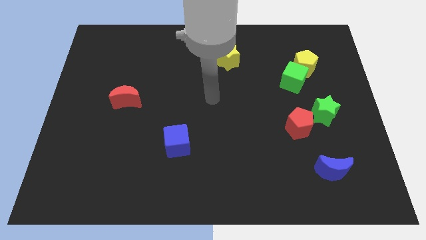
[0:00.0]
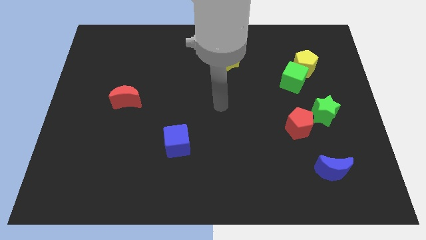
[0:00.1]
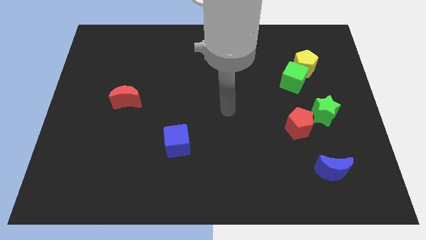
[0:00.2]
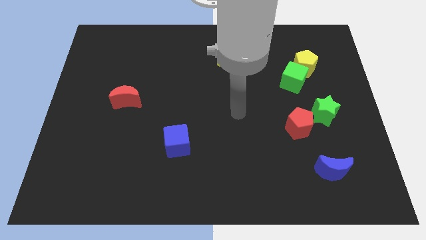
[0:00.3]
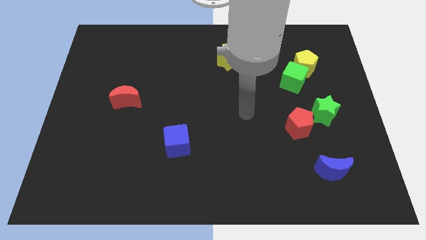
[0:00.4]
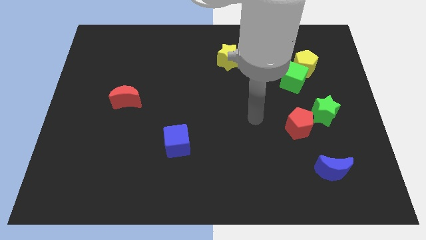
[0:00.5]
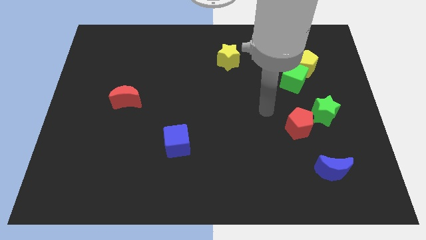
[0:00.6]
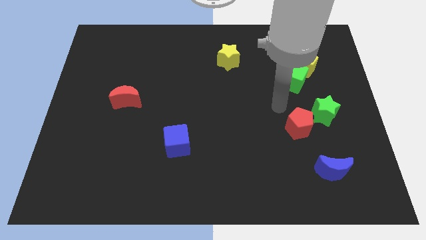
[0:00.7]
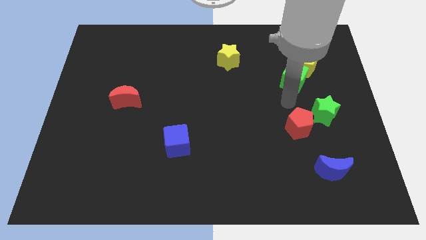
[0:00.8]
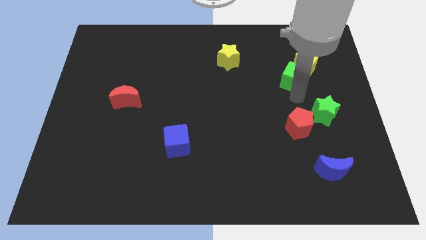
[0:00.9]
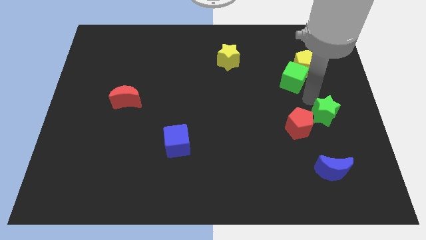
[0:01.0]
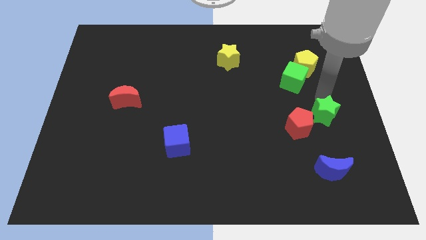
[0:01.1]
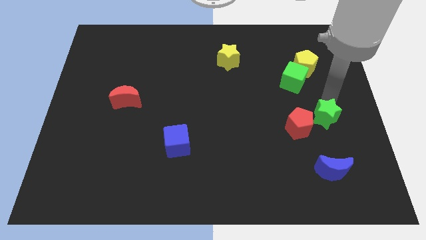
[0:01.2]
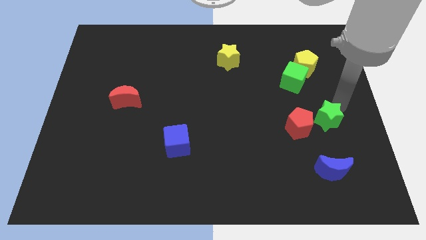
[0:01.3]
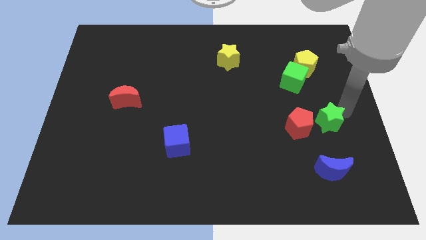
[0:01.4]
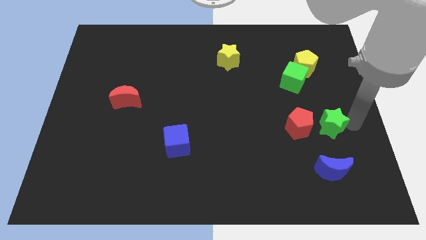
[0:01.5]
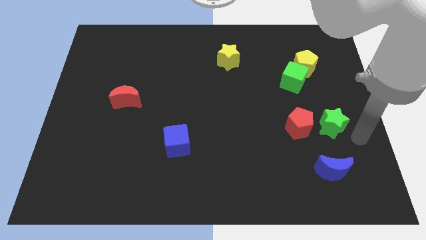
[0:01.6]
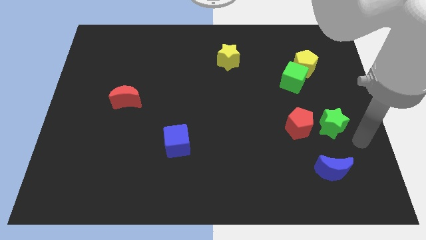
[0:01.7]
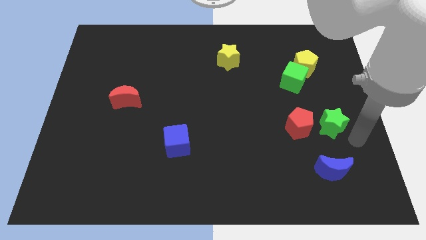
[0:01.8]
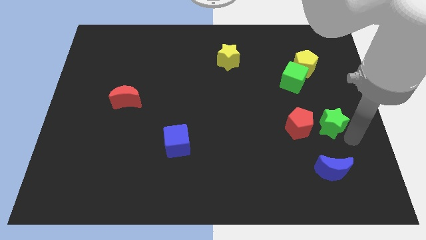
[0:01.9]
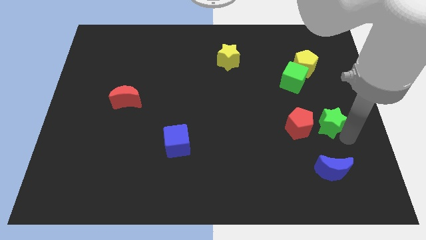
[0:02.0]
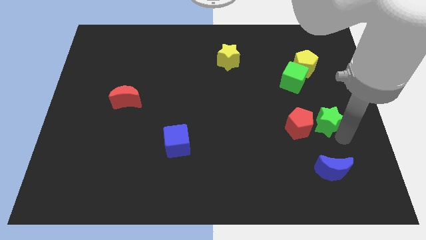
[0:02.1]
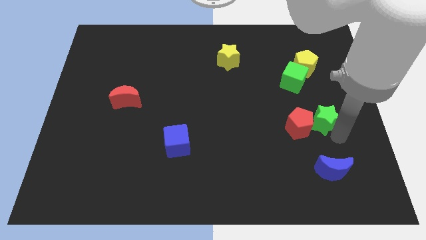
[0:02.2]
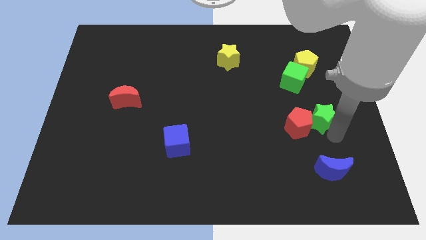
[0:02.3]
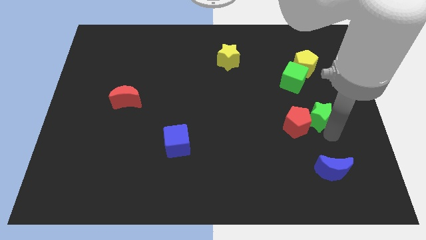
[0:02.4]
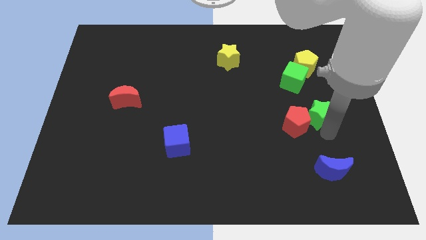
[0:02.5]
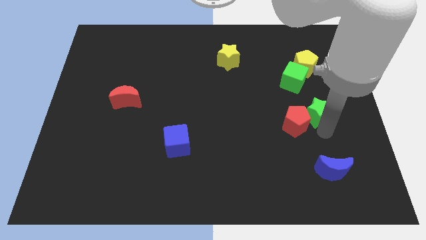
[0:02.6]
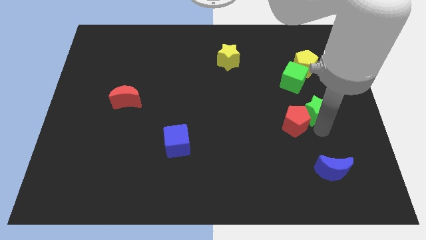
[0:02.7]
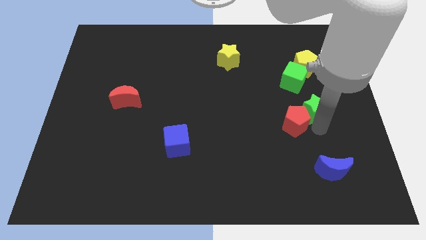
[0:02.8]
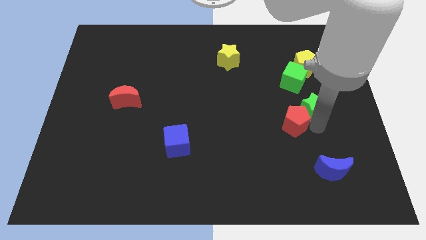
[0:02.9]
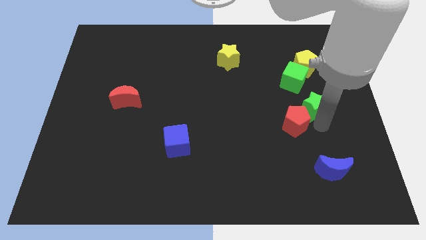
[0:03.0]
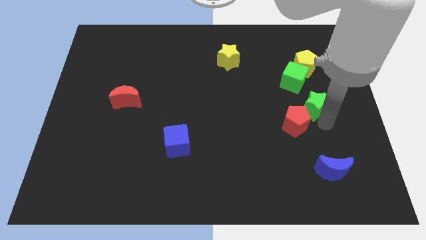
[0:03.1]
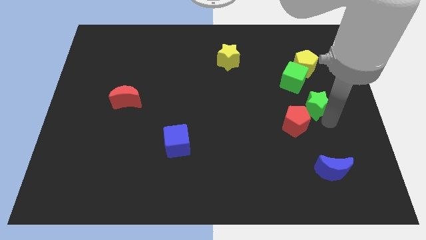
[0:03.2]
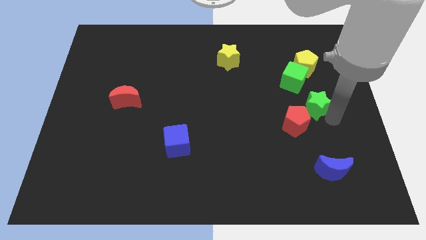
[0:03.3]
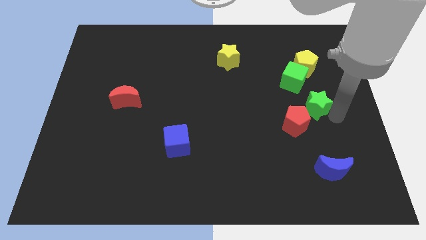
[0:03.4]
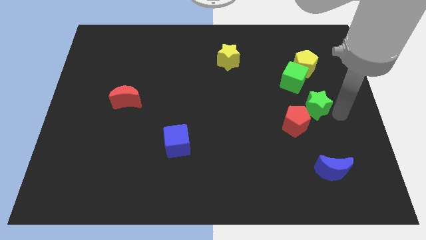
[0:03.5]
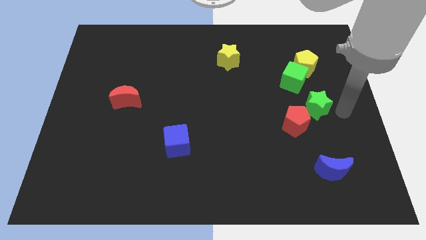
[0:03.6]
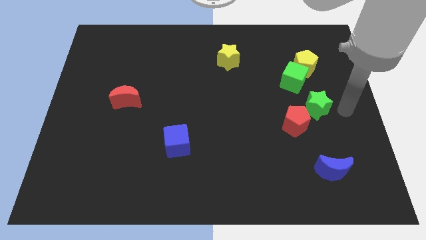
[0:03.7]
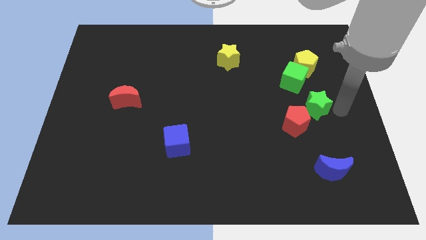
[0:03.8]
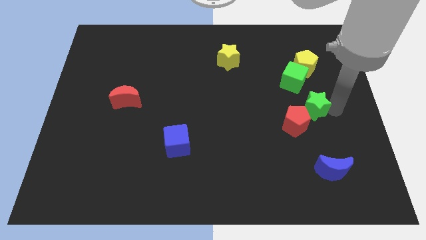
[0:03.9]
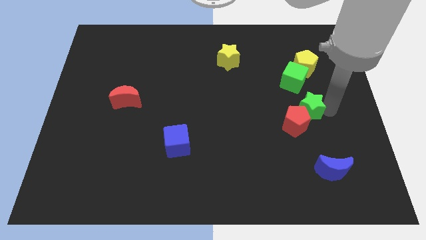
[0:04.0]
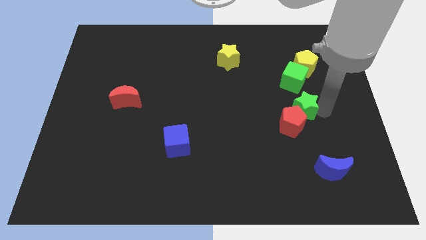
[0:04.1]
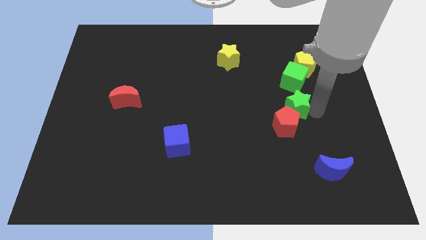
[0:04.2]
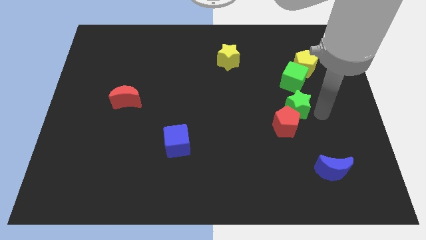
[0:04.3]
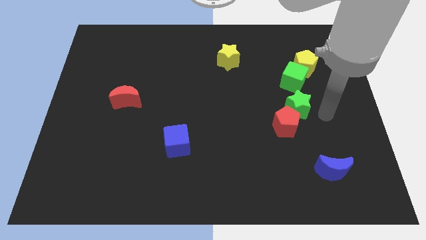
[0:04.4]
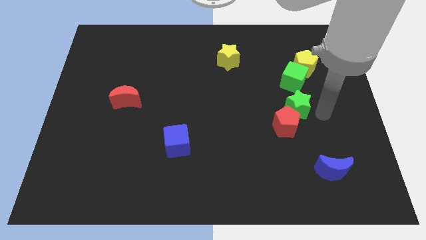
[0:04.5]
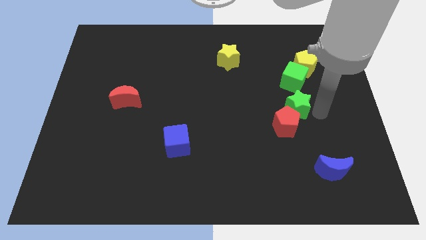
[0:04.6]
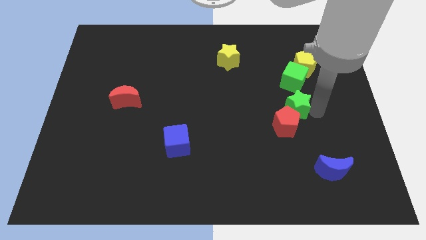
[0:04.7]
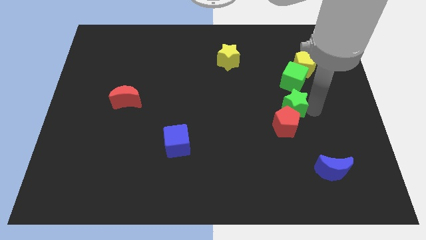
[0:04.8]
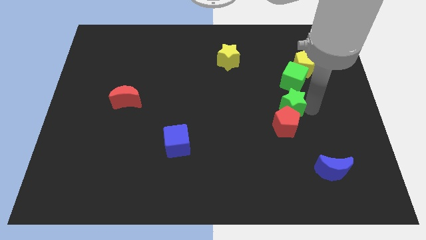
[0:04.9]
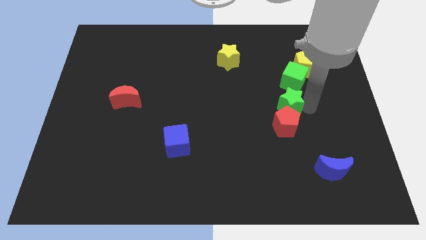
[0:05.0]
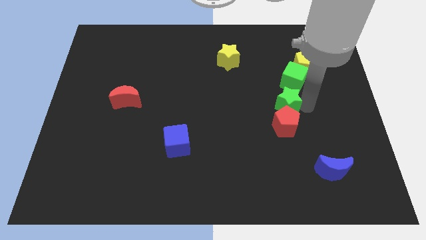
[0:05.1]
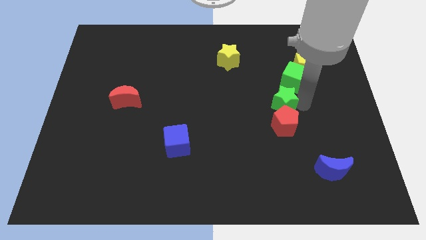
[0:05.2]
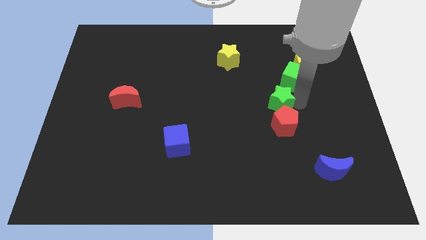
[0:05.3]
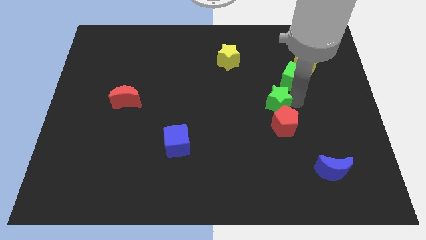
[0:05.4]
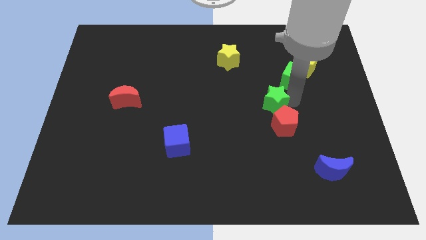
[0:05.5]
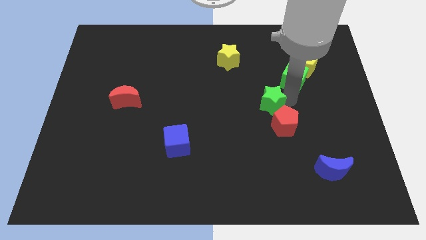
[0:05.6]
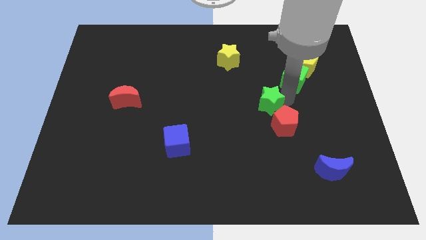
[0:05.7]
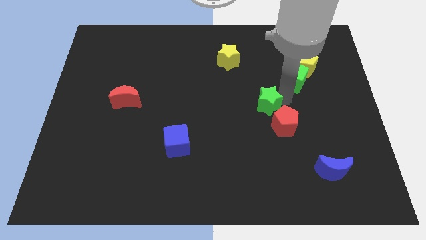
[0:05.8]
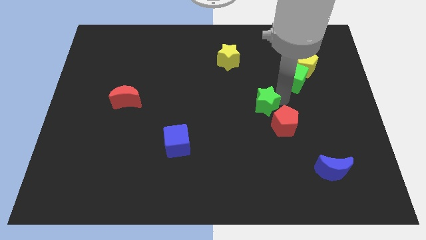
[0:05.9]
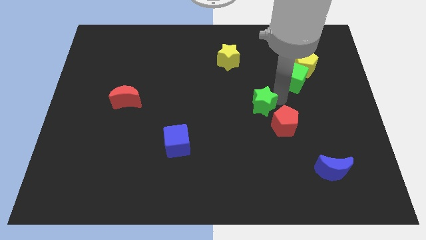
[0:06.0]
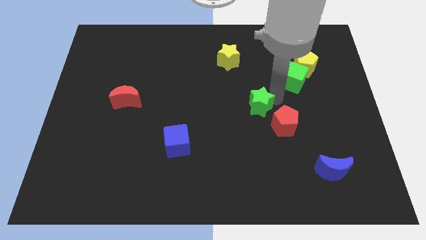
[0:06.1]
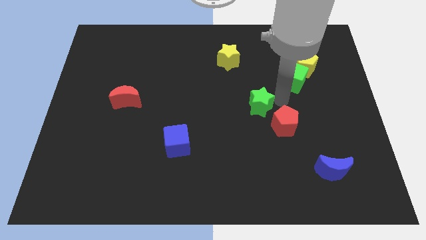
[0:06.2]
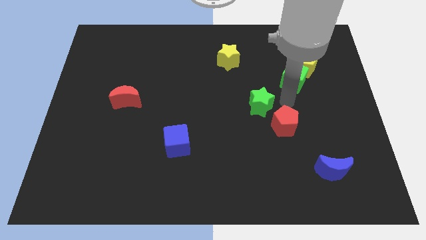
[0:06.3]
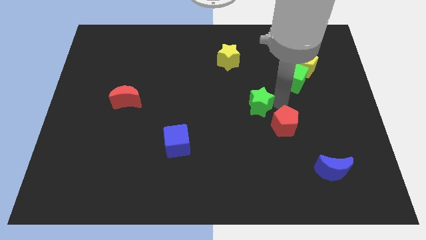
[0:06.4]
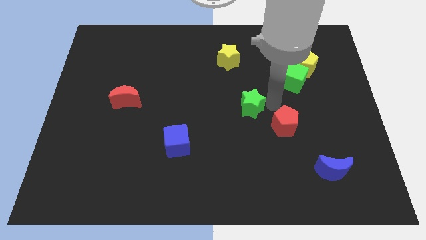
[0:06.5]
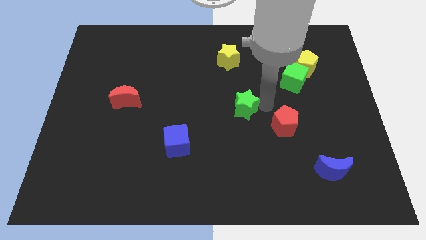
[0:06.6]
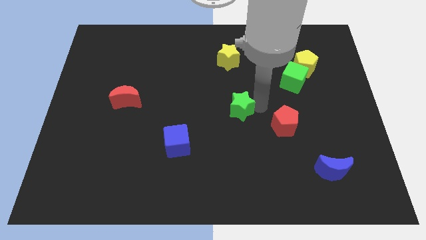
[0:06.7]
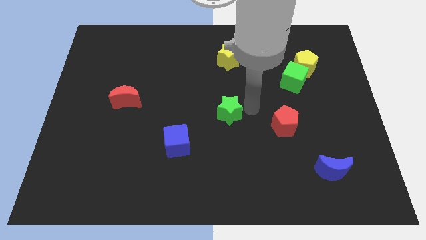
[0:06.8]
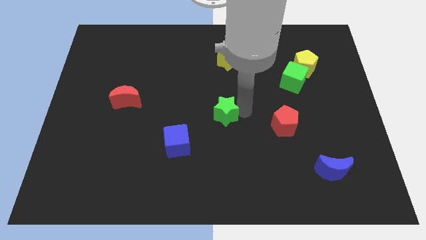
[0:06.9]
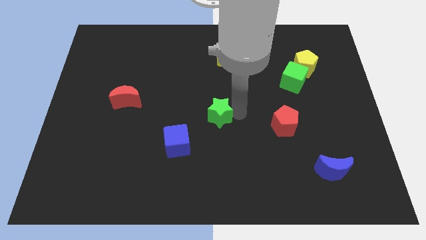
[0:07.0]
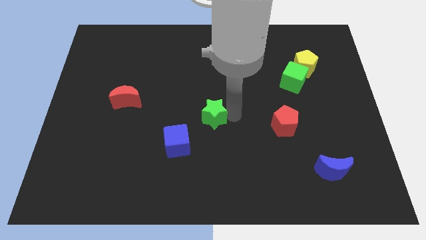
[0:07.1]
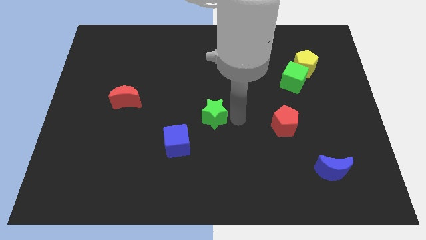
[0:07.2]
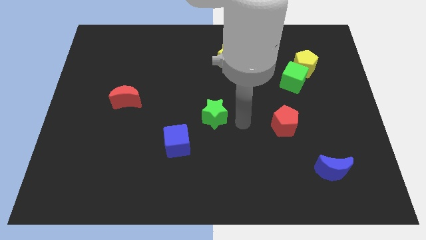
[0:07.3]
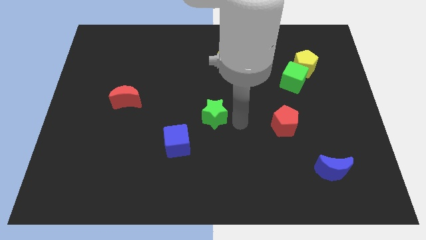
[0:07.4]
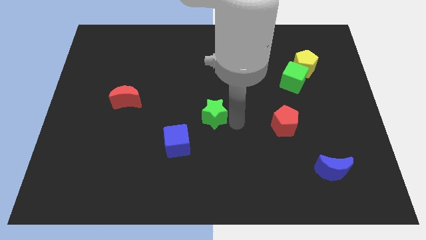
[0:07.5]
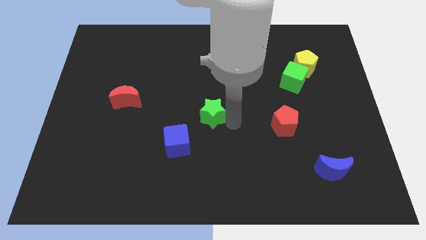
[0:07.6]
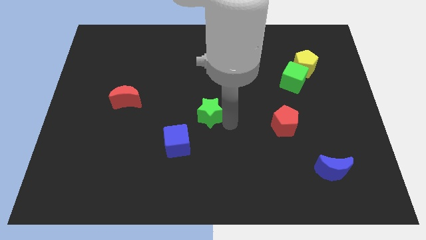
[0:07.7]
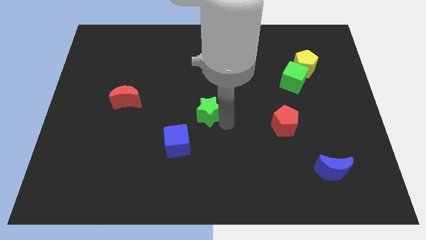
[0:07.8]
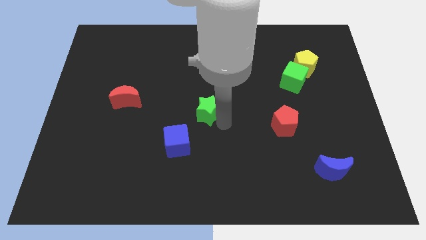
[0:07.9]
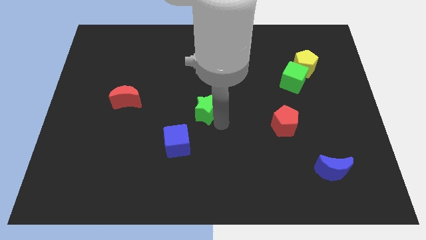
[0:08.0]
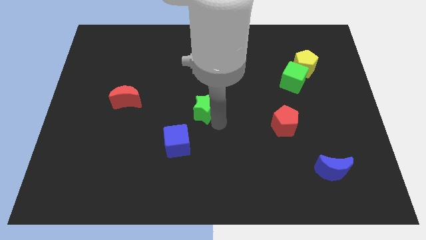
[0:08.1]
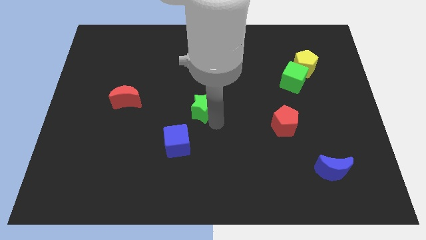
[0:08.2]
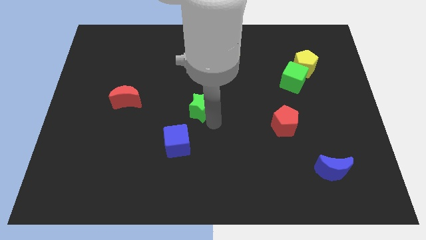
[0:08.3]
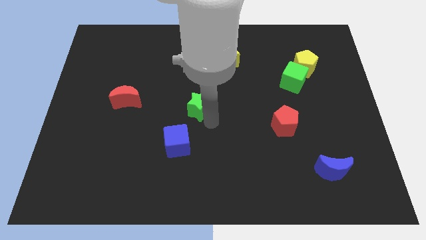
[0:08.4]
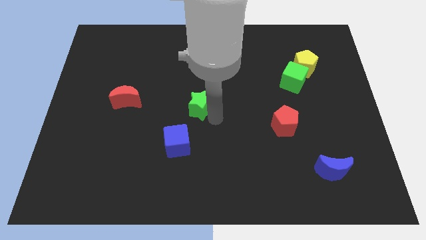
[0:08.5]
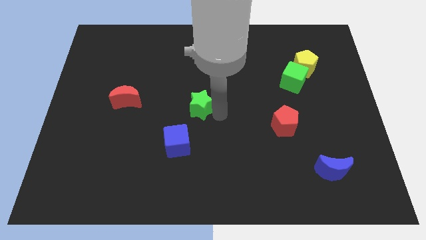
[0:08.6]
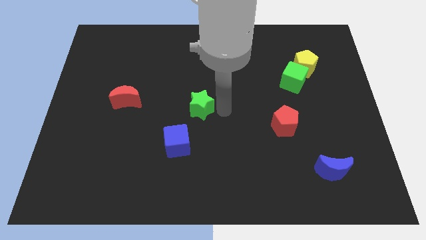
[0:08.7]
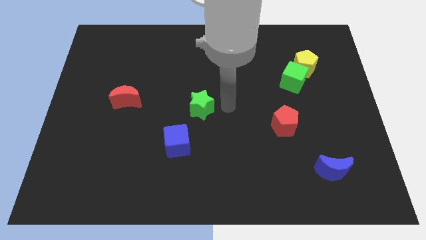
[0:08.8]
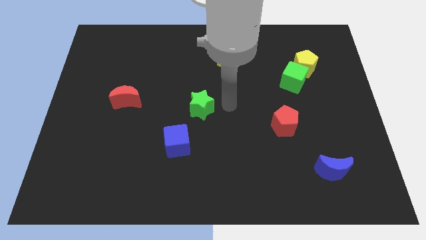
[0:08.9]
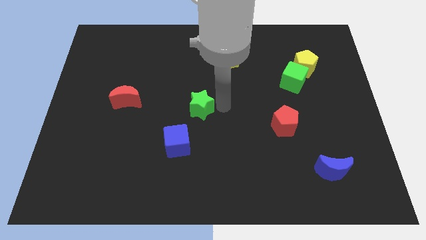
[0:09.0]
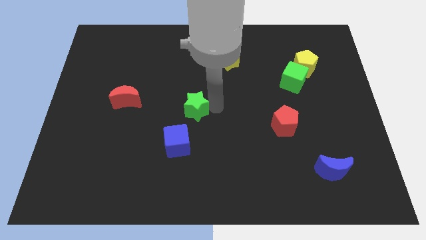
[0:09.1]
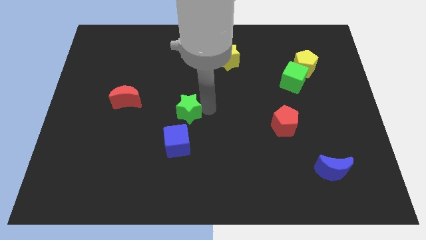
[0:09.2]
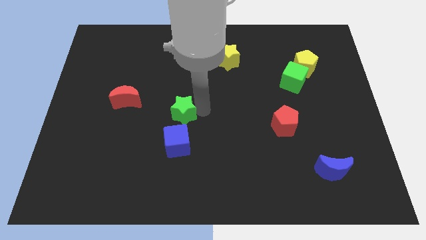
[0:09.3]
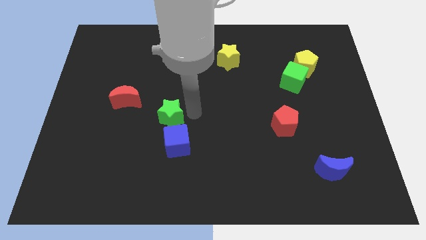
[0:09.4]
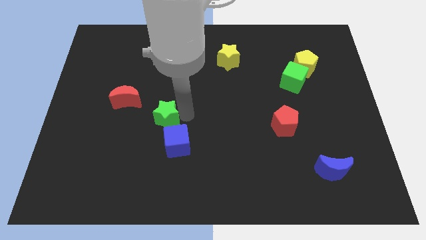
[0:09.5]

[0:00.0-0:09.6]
put the green star to the bottom right of the red moon
